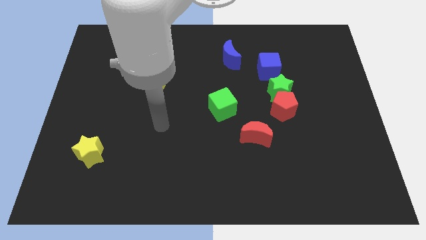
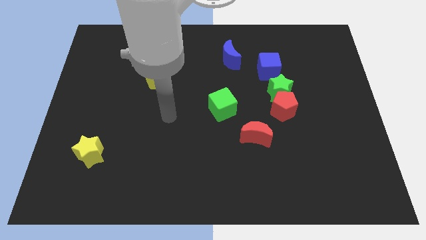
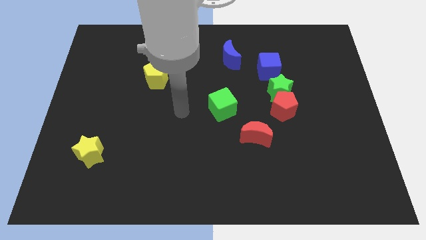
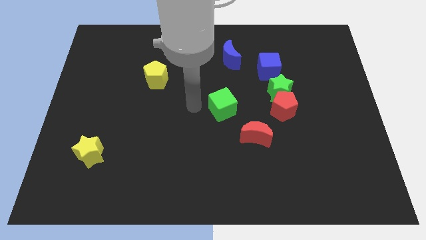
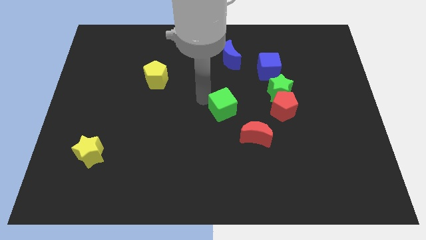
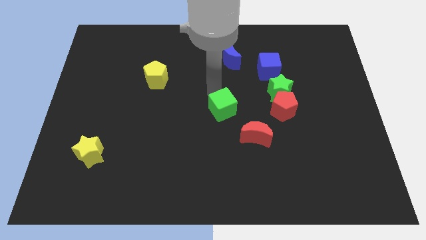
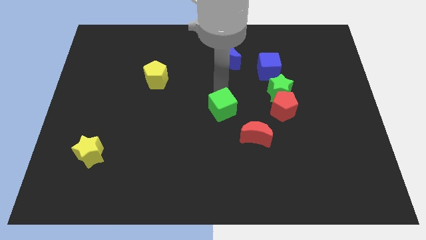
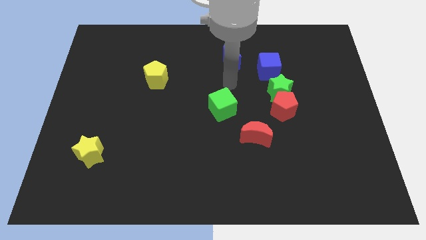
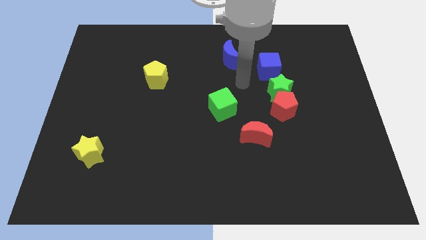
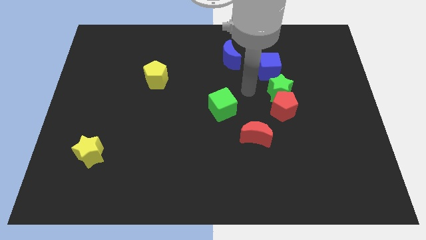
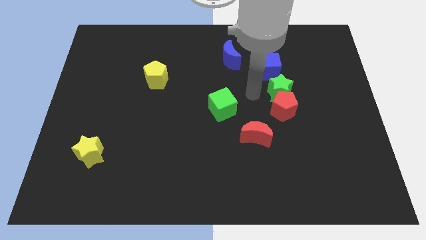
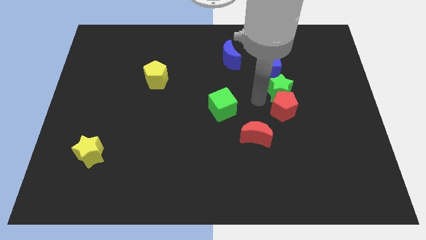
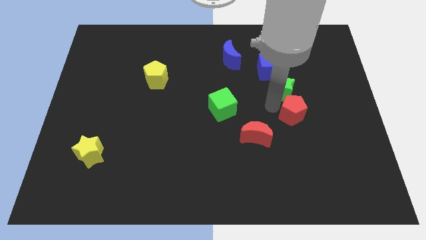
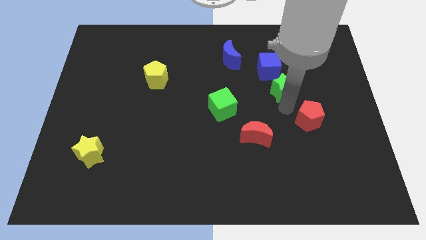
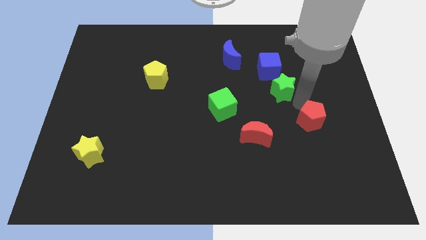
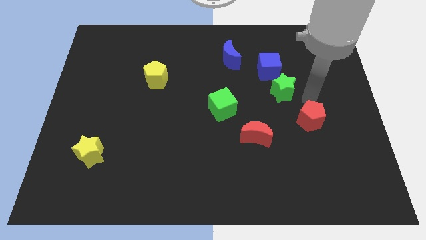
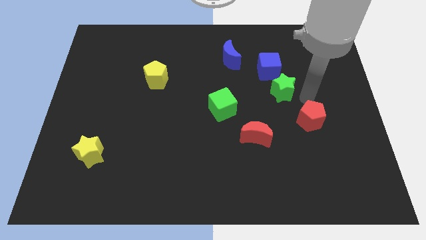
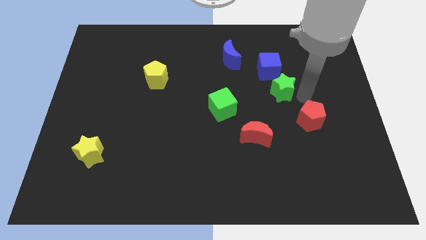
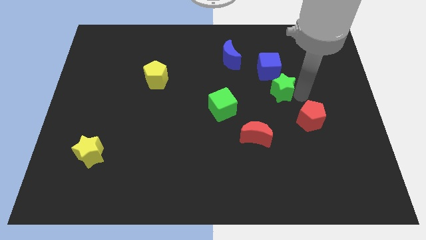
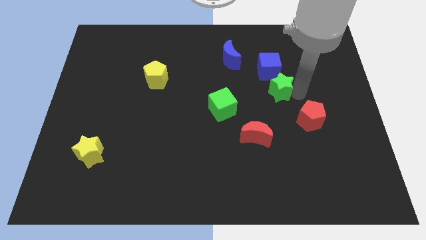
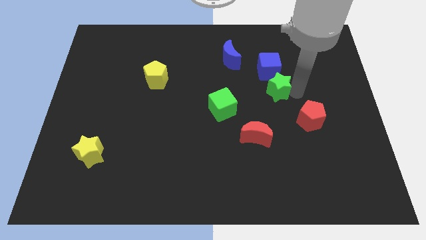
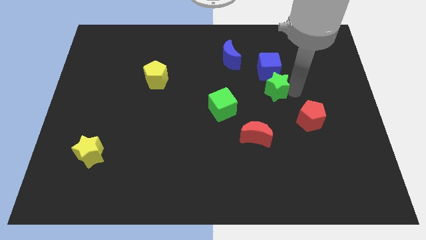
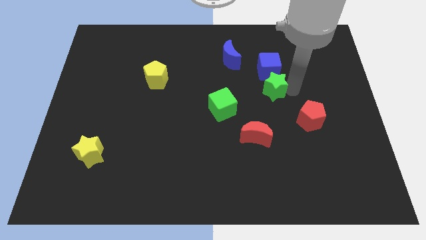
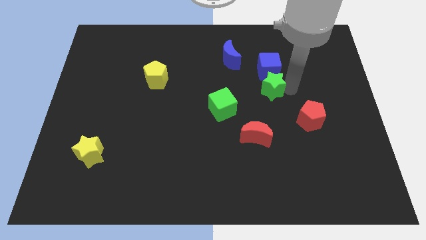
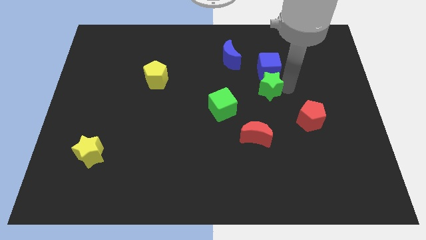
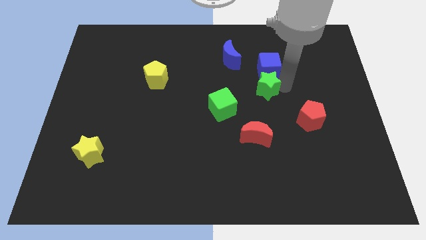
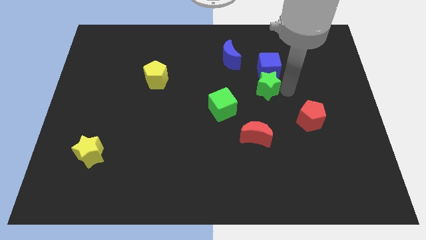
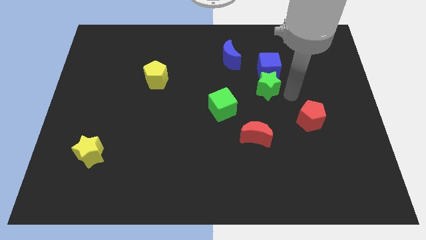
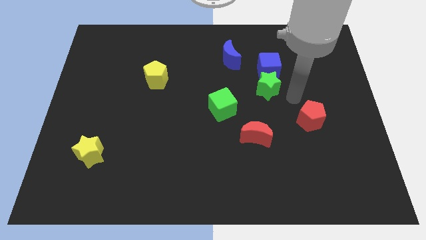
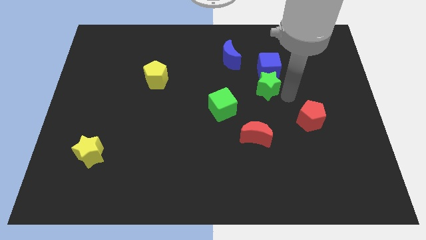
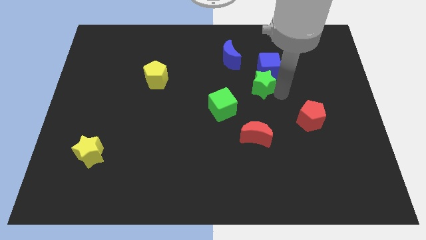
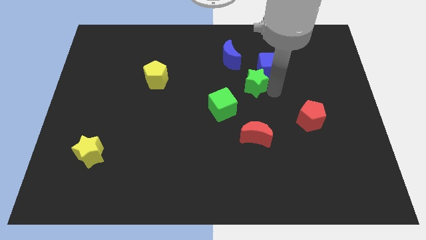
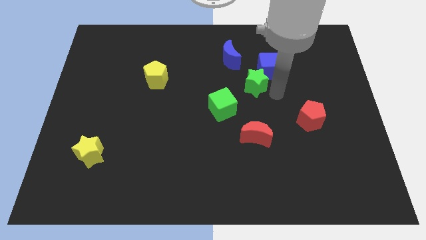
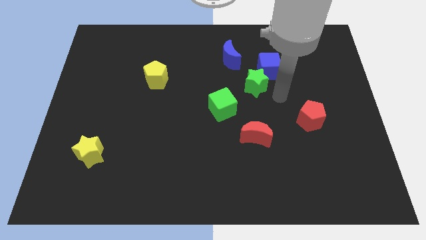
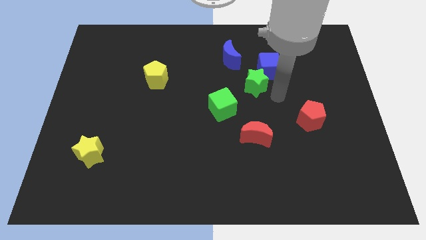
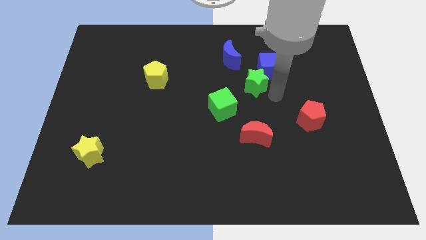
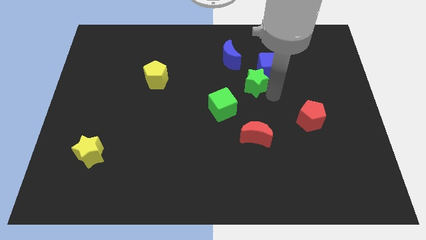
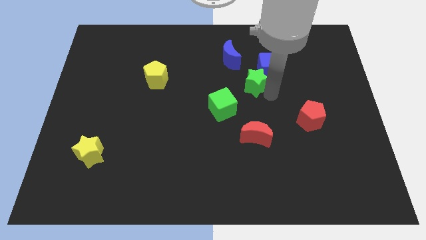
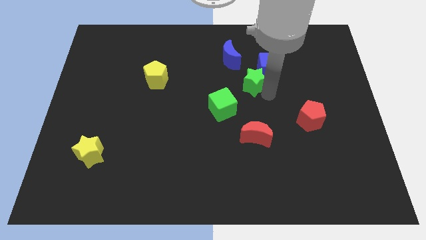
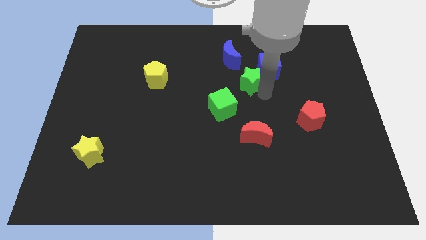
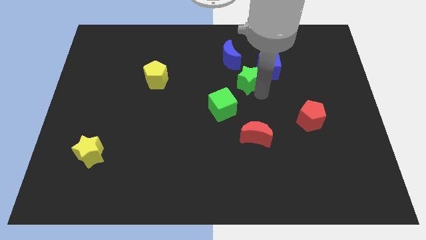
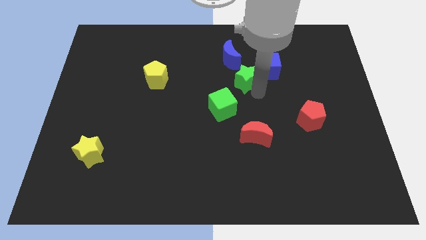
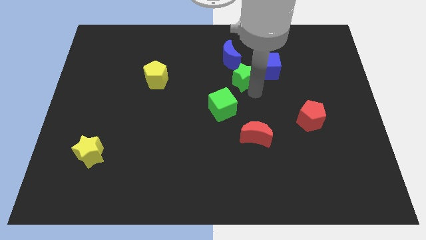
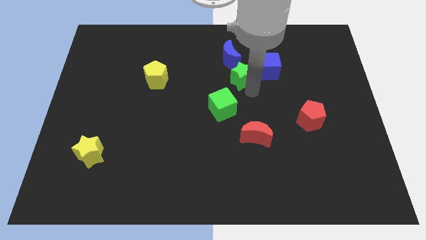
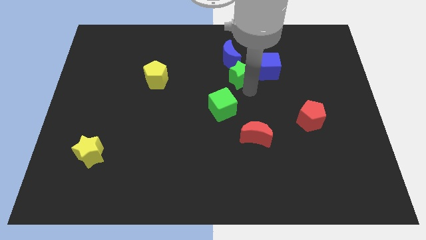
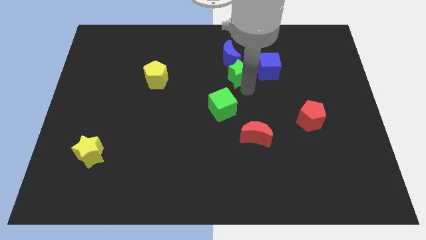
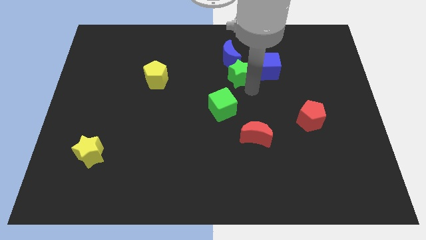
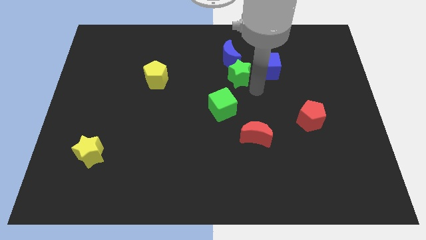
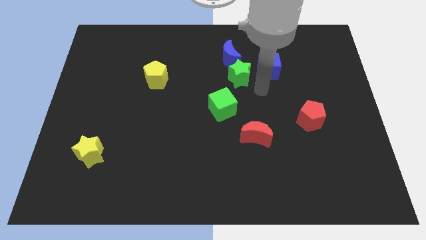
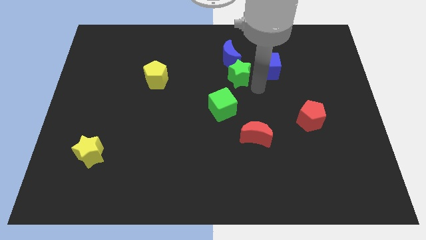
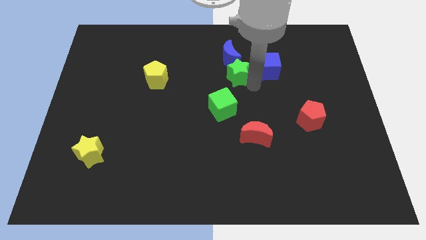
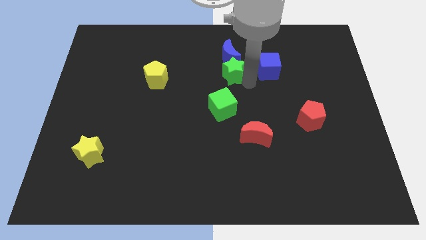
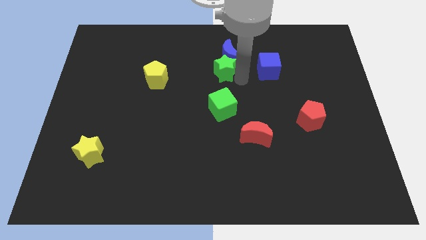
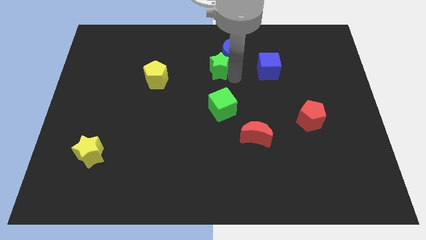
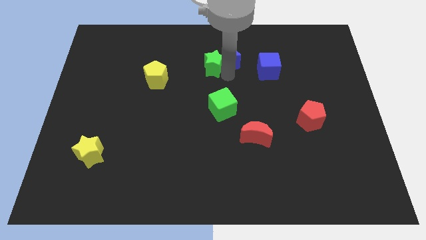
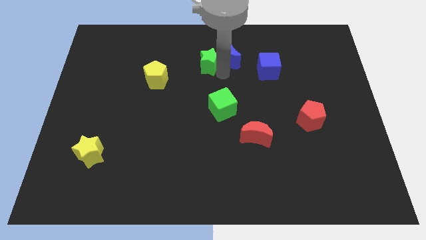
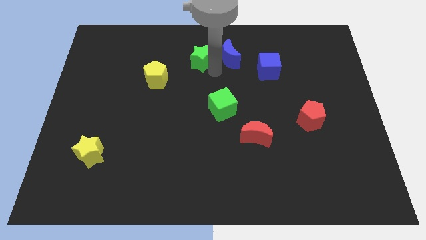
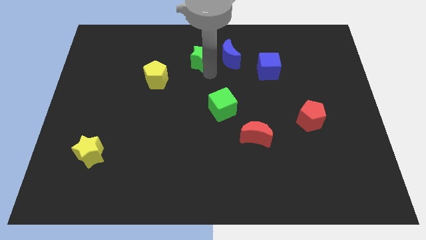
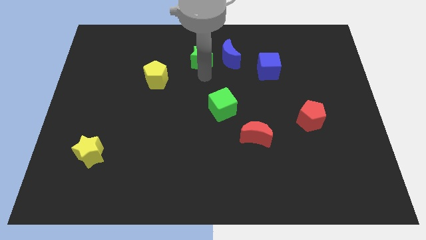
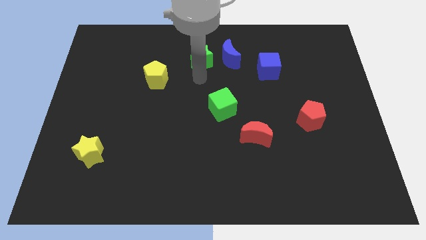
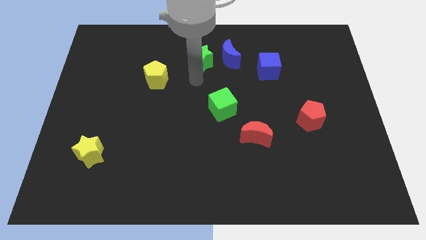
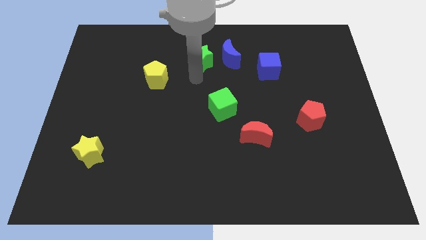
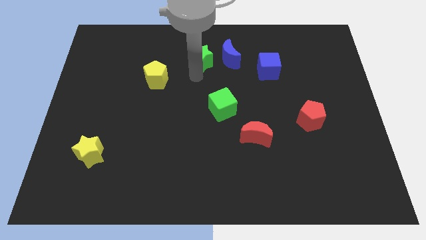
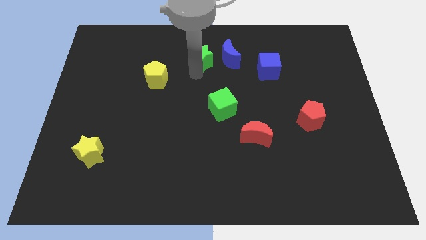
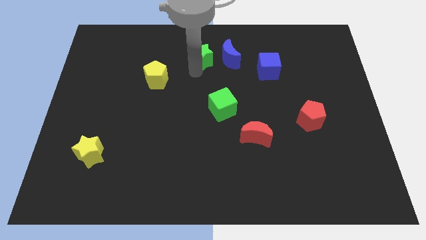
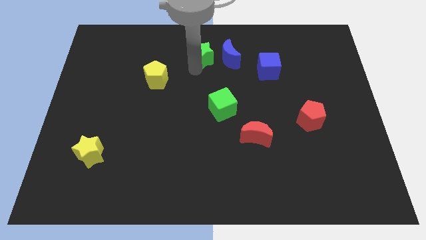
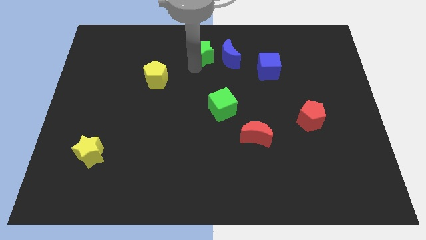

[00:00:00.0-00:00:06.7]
put the green star to the top
